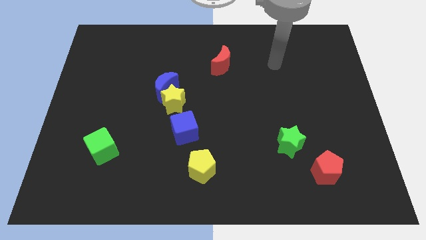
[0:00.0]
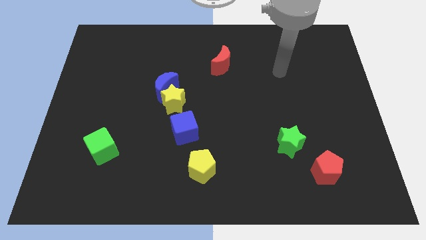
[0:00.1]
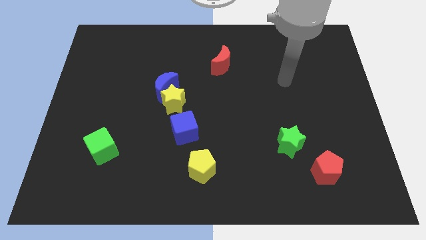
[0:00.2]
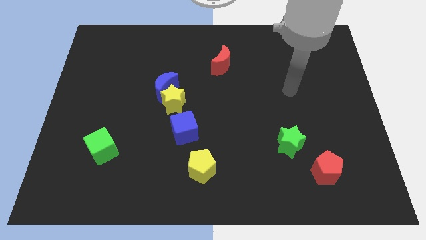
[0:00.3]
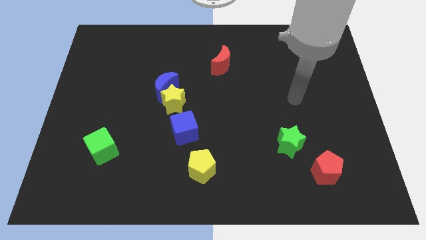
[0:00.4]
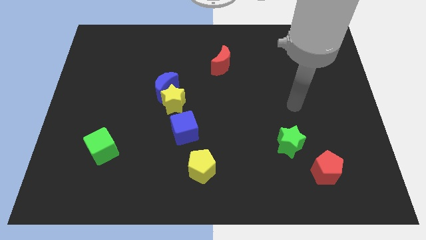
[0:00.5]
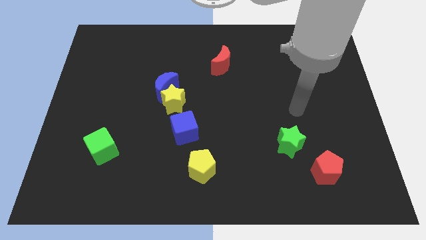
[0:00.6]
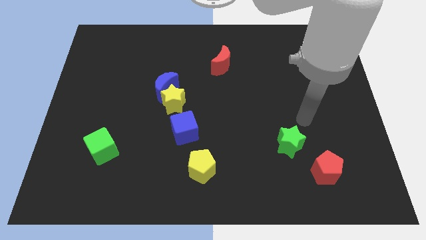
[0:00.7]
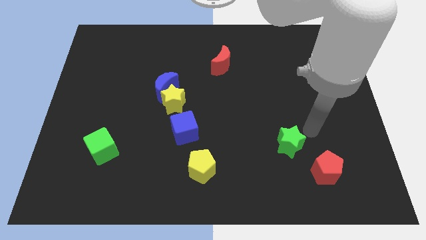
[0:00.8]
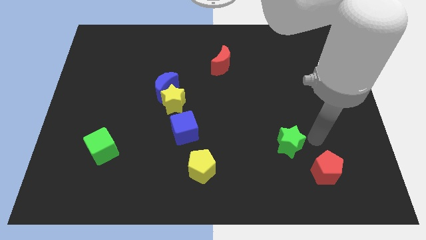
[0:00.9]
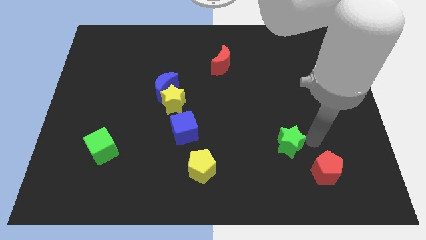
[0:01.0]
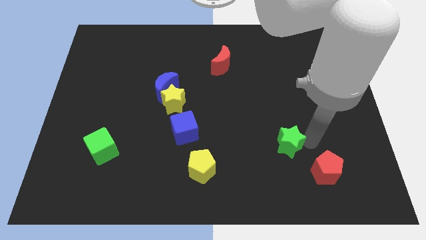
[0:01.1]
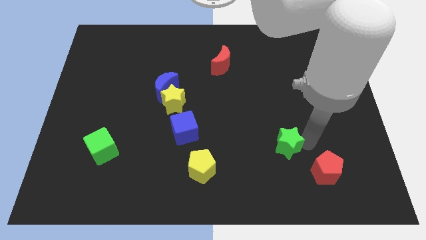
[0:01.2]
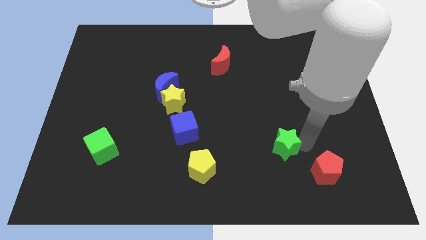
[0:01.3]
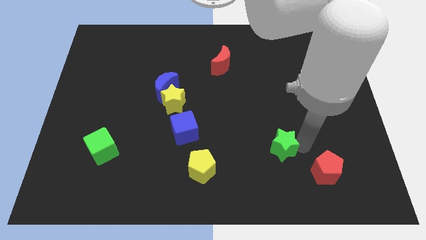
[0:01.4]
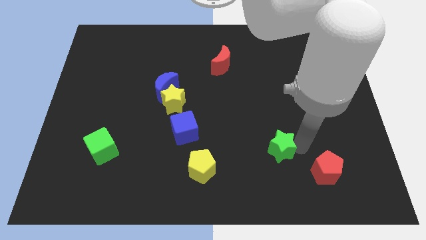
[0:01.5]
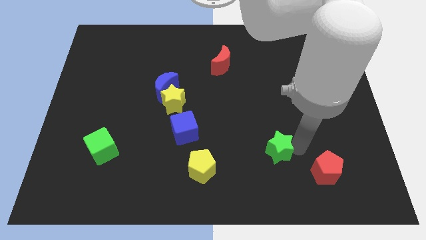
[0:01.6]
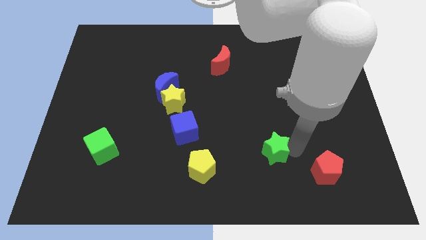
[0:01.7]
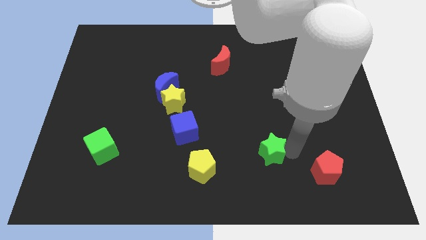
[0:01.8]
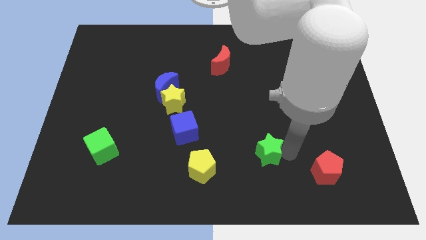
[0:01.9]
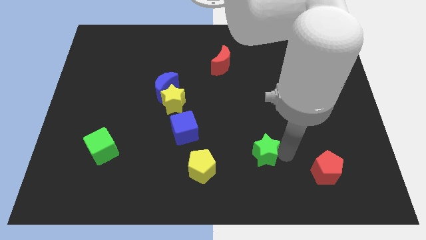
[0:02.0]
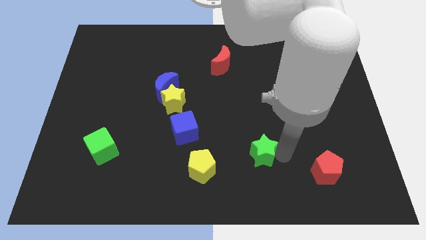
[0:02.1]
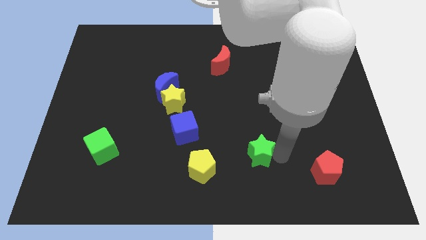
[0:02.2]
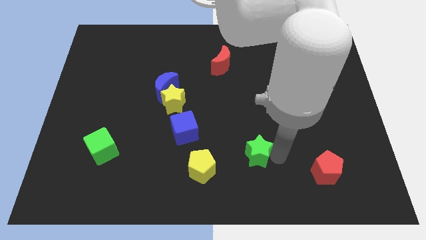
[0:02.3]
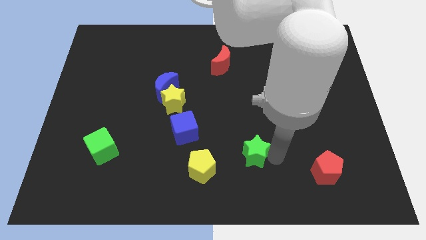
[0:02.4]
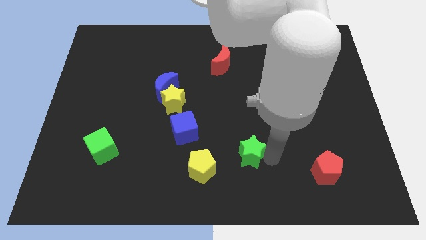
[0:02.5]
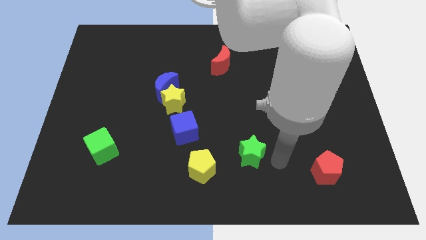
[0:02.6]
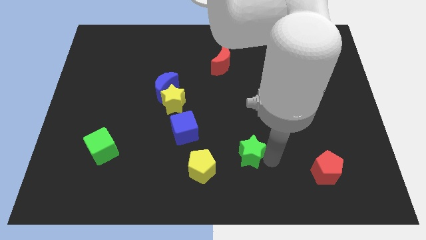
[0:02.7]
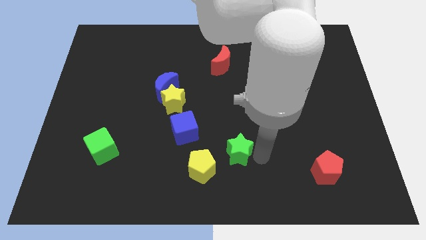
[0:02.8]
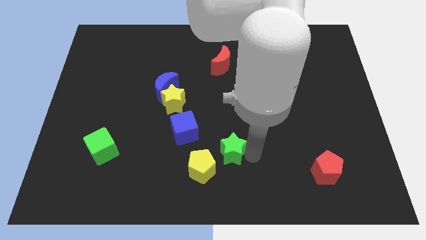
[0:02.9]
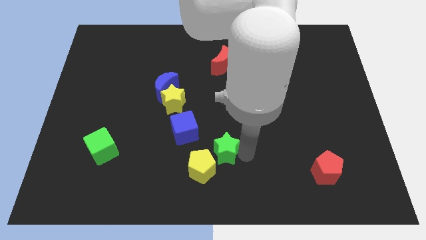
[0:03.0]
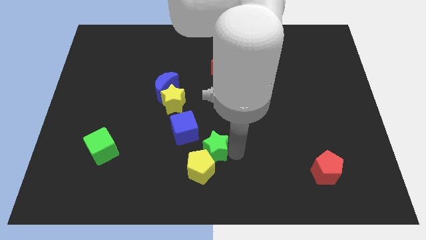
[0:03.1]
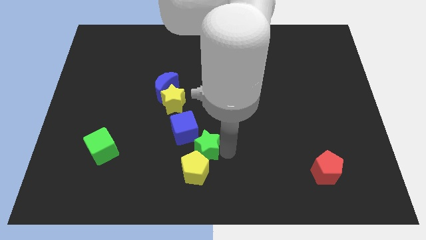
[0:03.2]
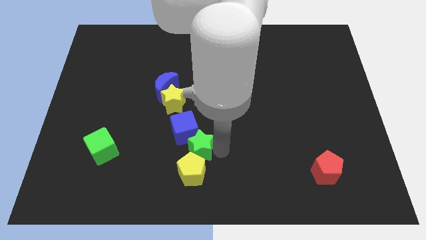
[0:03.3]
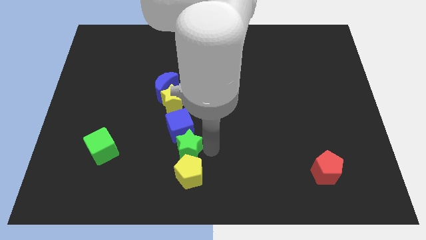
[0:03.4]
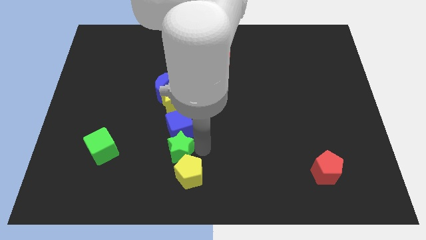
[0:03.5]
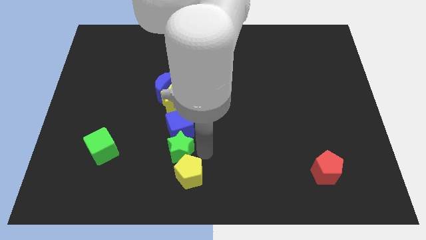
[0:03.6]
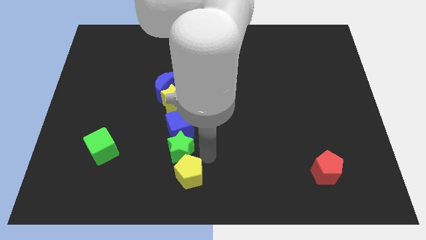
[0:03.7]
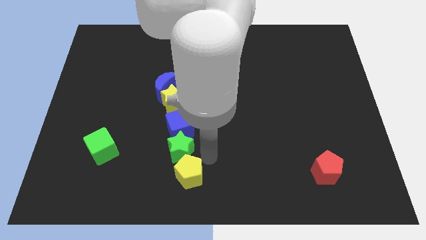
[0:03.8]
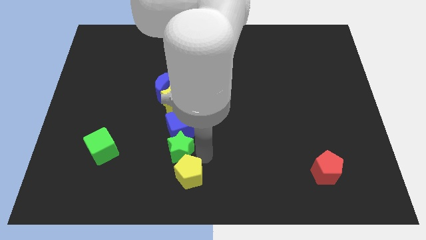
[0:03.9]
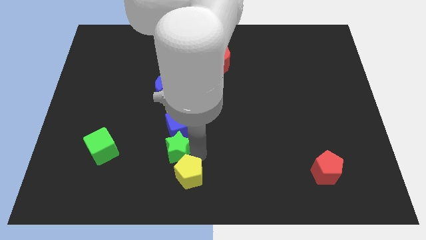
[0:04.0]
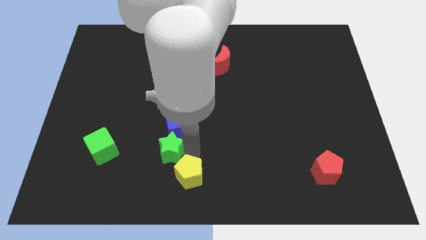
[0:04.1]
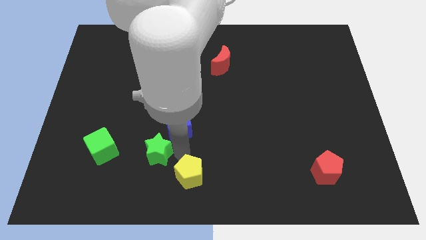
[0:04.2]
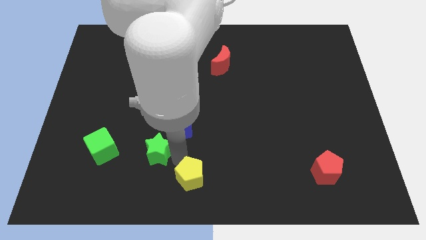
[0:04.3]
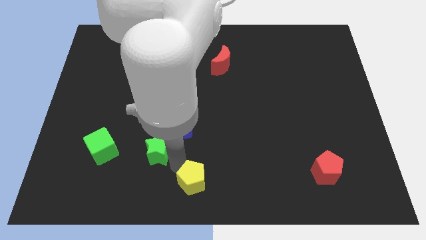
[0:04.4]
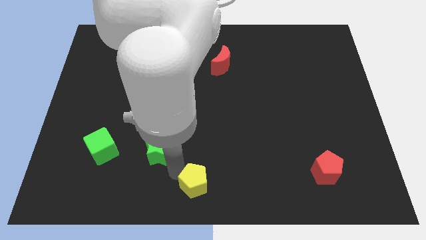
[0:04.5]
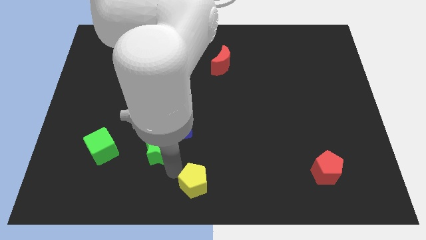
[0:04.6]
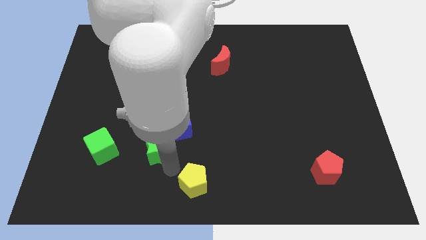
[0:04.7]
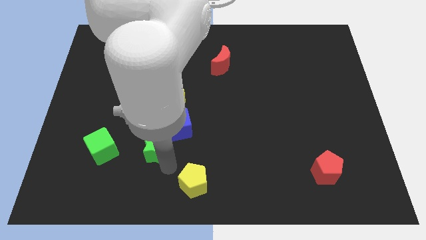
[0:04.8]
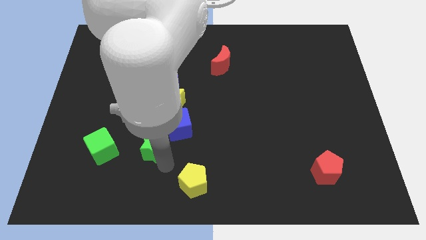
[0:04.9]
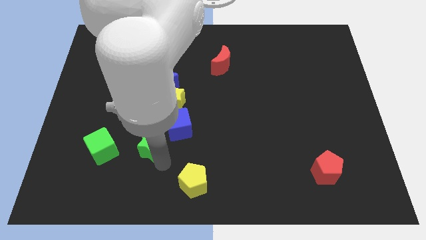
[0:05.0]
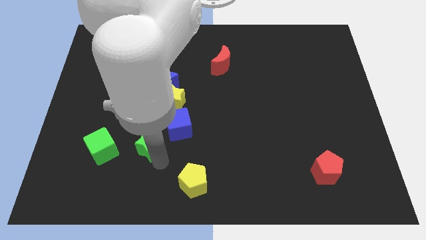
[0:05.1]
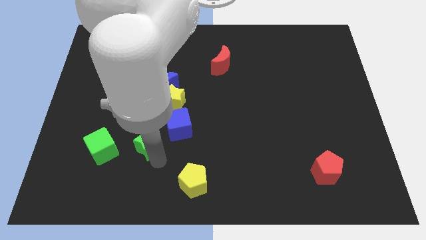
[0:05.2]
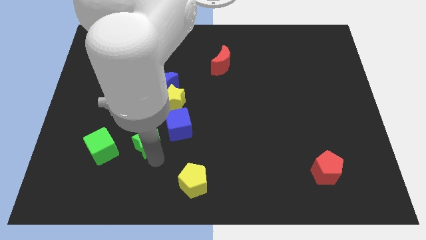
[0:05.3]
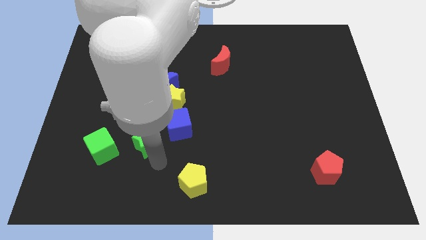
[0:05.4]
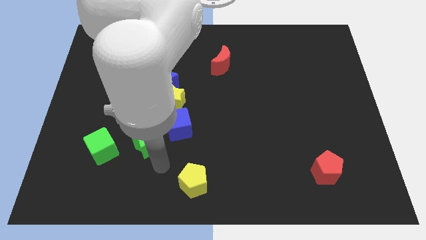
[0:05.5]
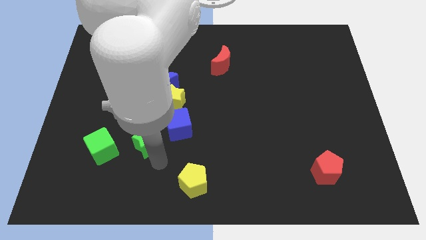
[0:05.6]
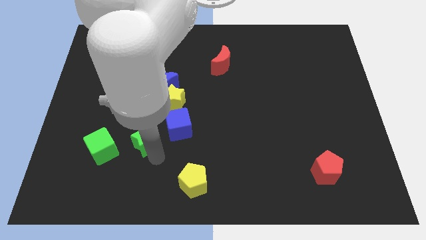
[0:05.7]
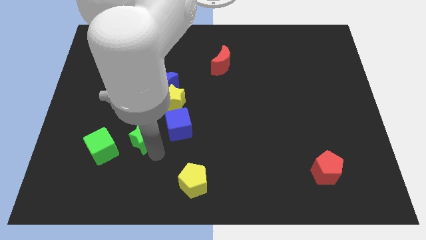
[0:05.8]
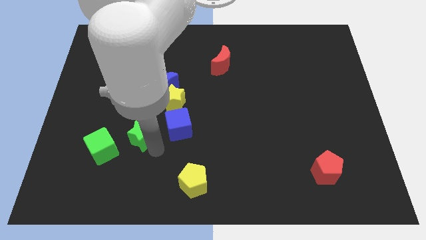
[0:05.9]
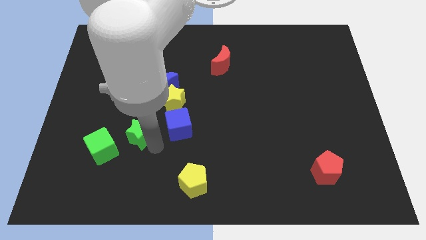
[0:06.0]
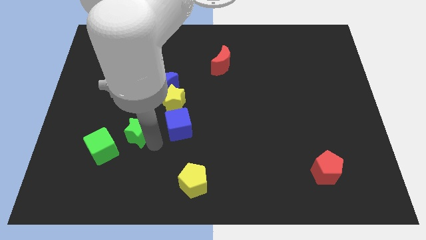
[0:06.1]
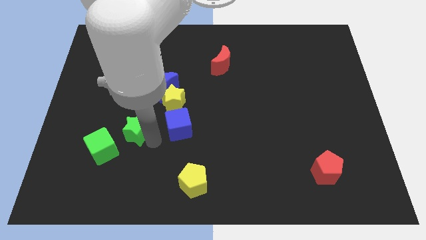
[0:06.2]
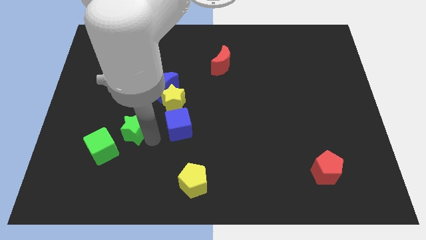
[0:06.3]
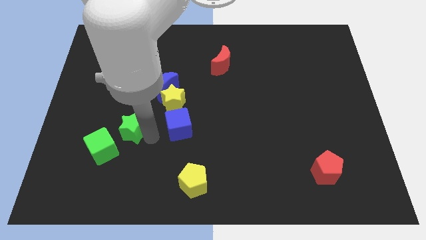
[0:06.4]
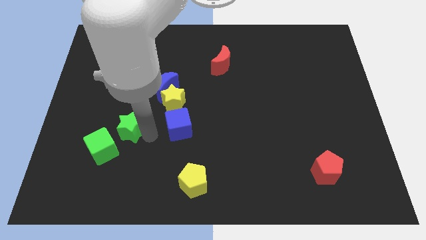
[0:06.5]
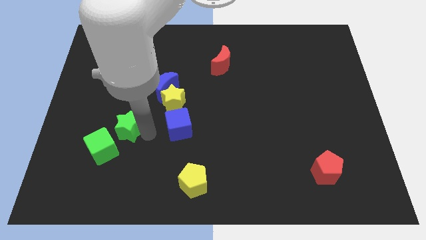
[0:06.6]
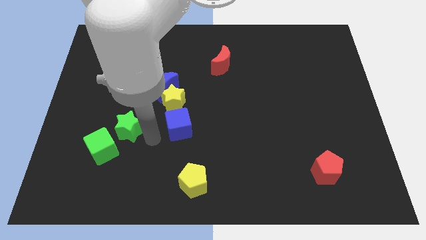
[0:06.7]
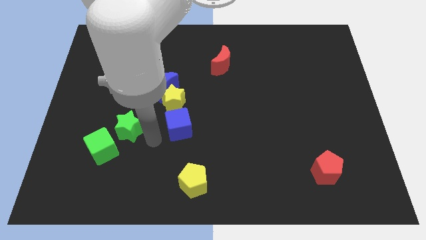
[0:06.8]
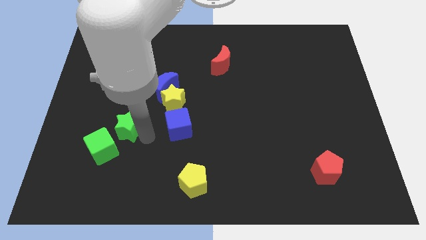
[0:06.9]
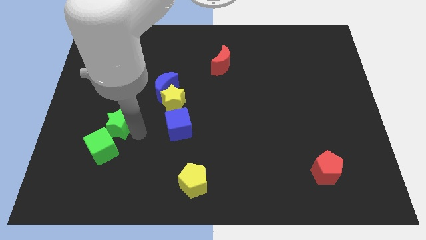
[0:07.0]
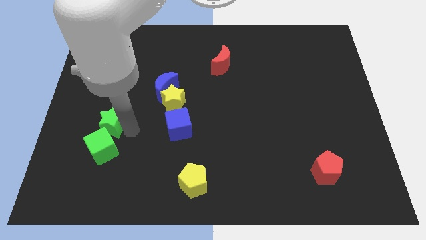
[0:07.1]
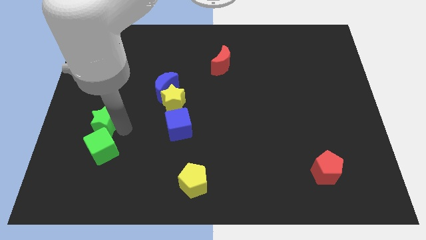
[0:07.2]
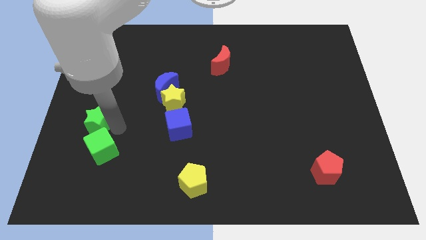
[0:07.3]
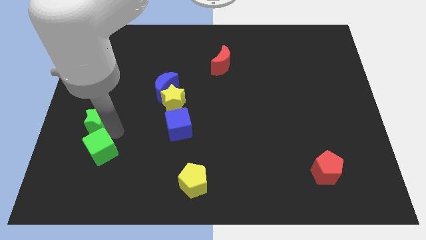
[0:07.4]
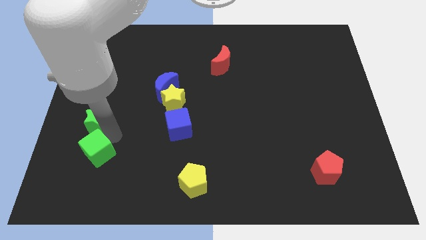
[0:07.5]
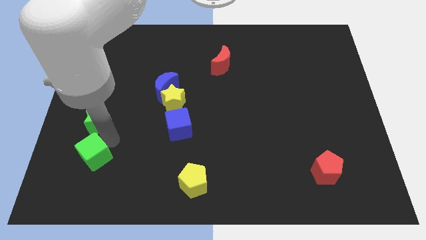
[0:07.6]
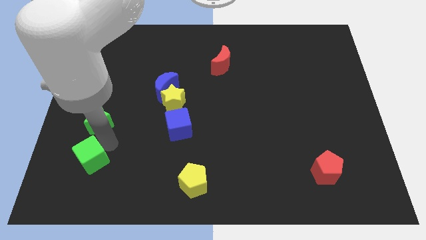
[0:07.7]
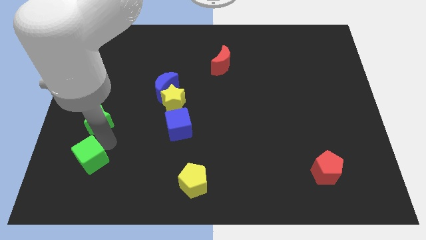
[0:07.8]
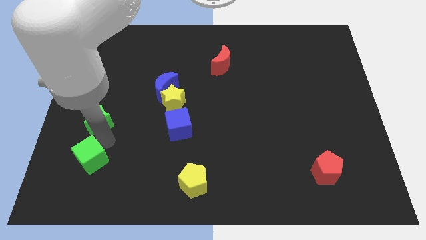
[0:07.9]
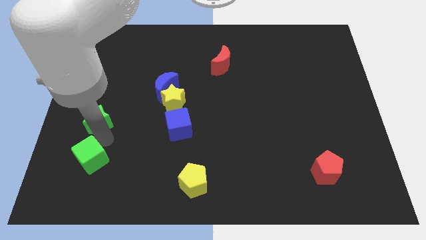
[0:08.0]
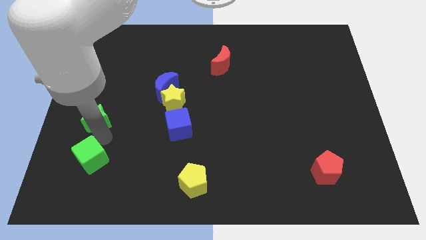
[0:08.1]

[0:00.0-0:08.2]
move the green star to the center left
